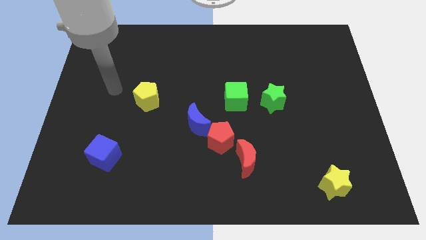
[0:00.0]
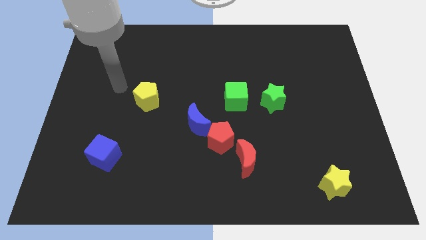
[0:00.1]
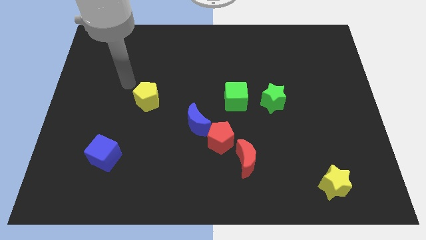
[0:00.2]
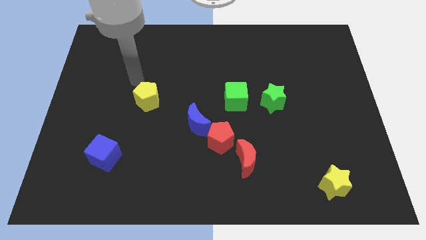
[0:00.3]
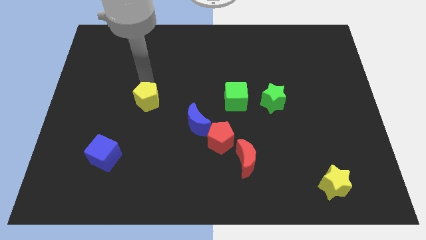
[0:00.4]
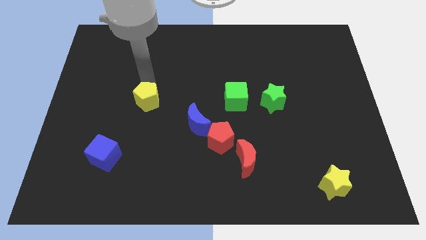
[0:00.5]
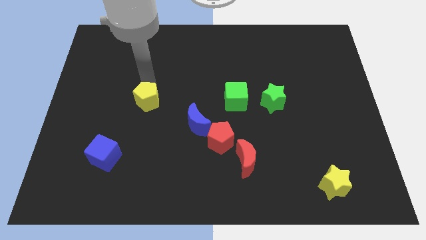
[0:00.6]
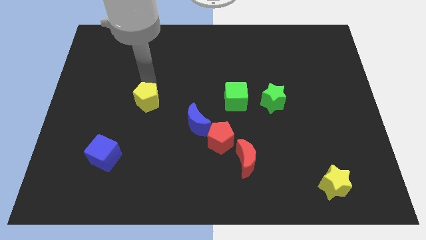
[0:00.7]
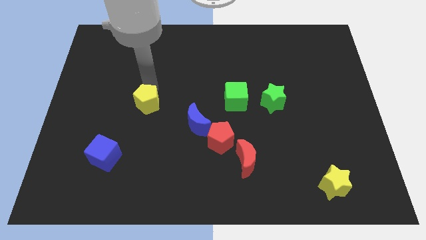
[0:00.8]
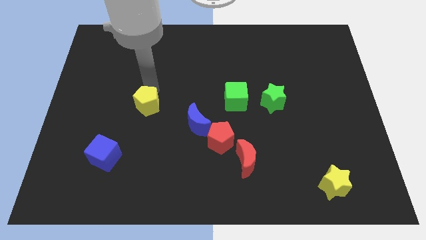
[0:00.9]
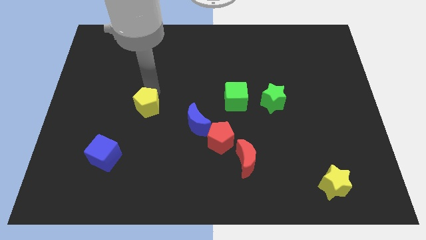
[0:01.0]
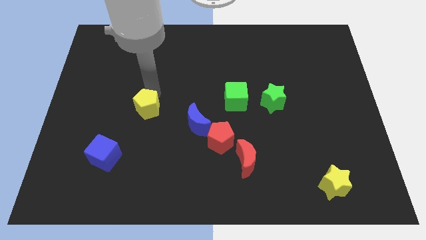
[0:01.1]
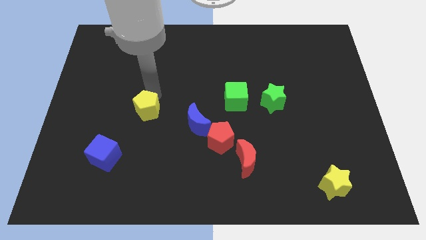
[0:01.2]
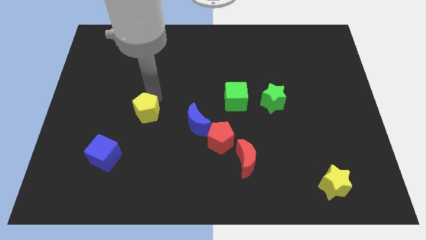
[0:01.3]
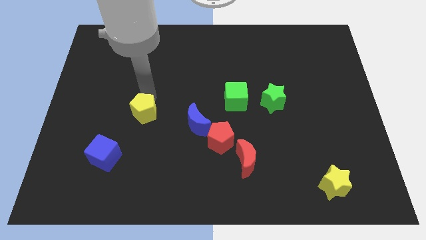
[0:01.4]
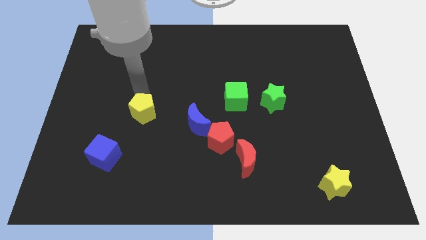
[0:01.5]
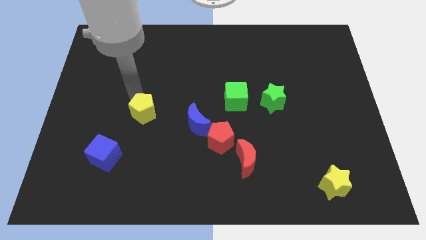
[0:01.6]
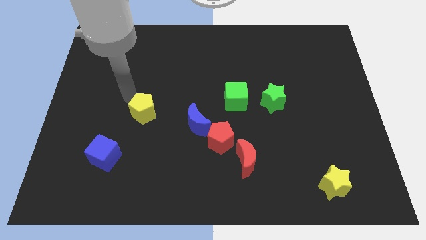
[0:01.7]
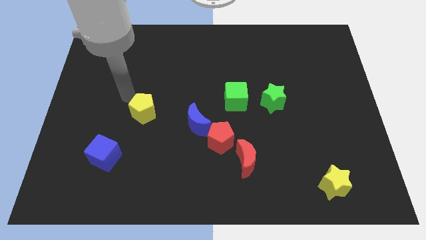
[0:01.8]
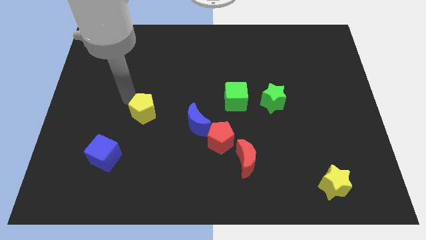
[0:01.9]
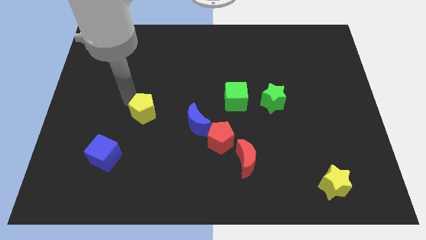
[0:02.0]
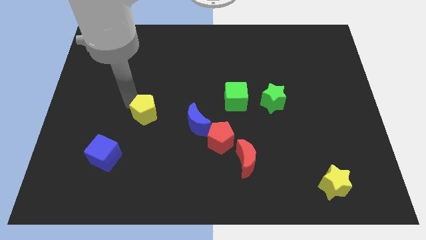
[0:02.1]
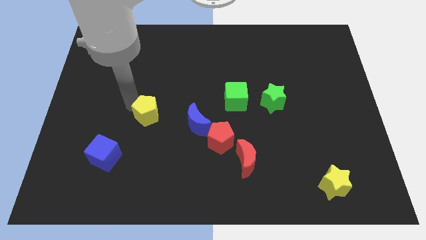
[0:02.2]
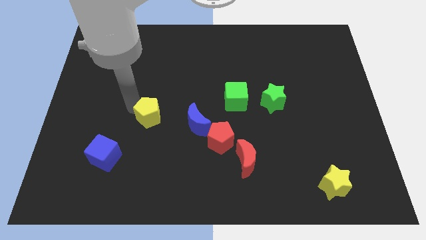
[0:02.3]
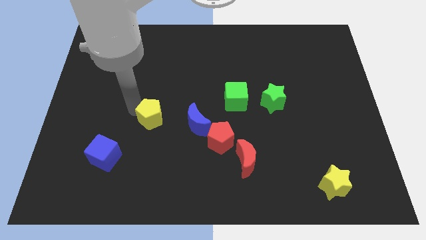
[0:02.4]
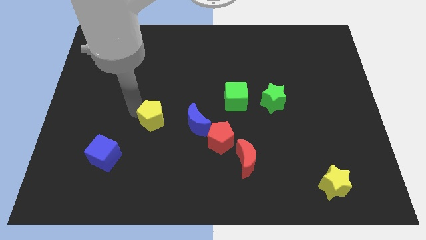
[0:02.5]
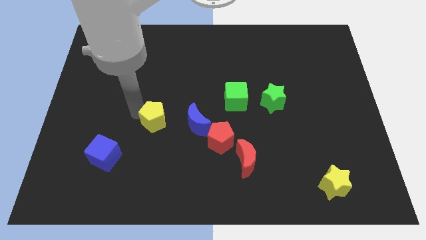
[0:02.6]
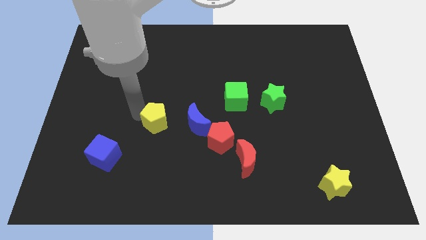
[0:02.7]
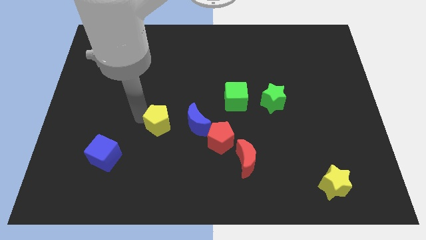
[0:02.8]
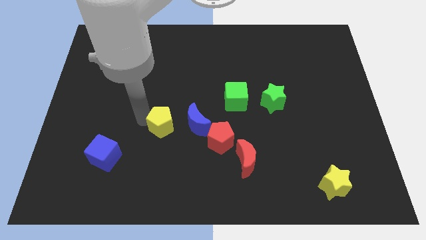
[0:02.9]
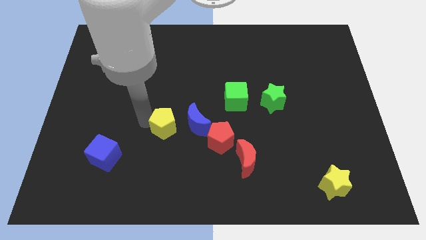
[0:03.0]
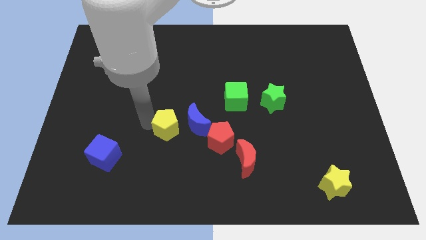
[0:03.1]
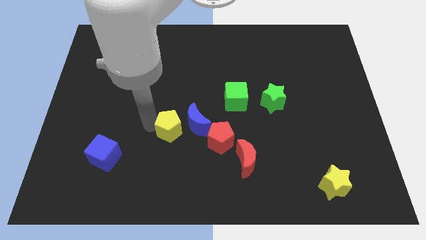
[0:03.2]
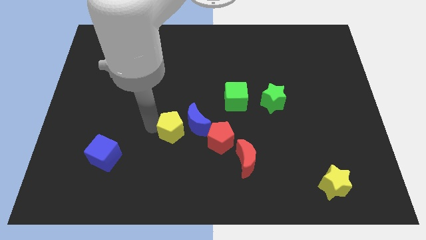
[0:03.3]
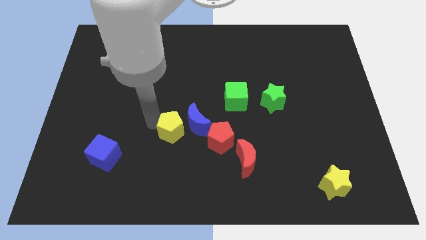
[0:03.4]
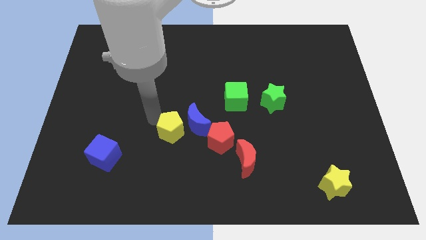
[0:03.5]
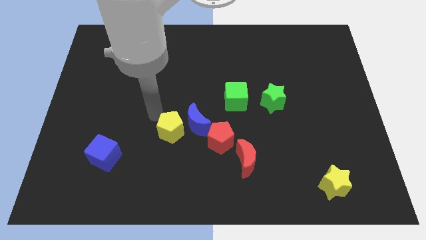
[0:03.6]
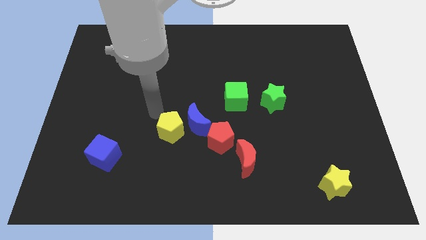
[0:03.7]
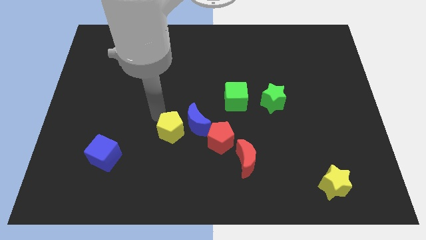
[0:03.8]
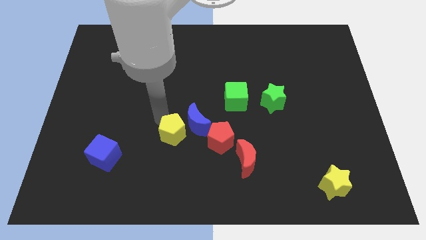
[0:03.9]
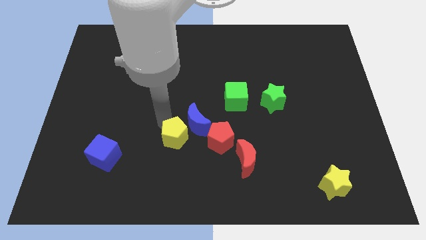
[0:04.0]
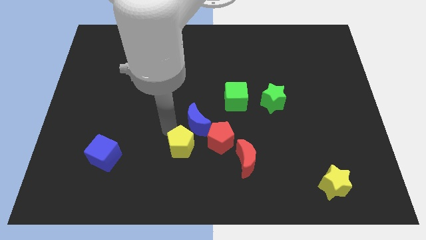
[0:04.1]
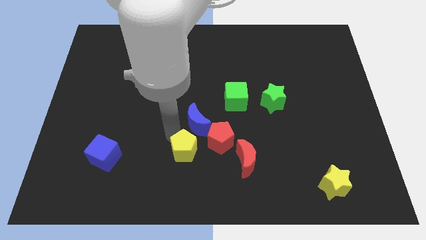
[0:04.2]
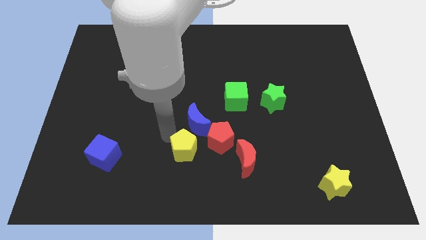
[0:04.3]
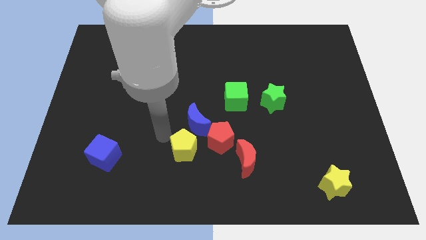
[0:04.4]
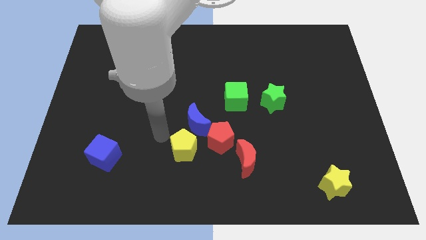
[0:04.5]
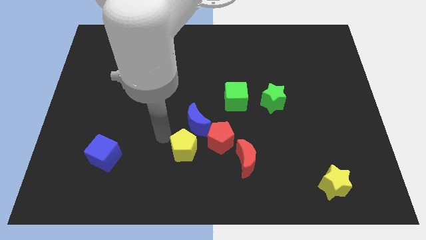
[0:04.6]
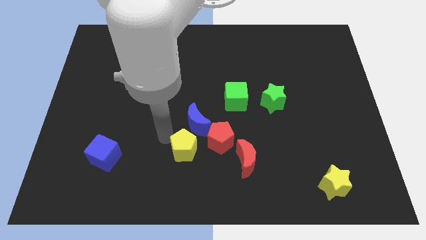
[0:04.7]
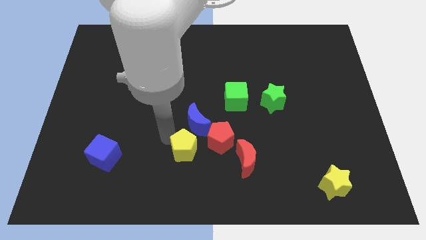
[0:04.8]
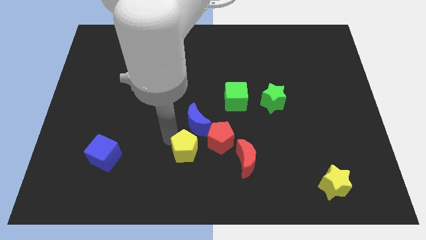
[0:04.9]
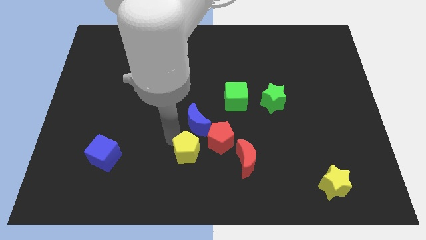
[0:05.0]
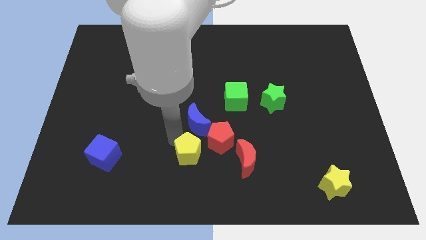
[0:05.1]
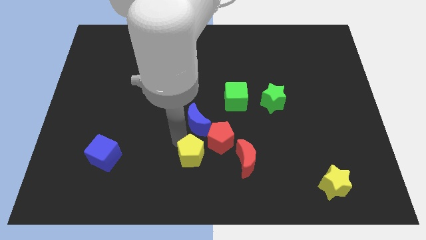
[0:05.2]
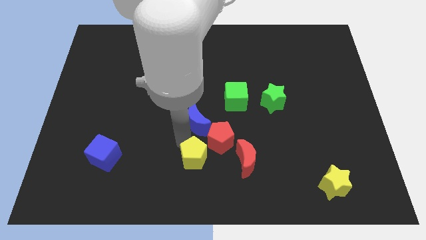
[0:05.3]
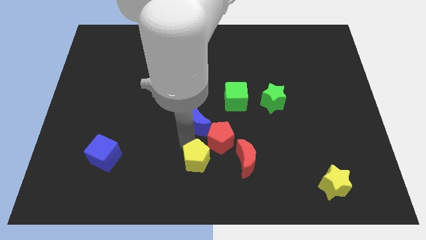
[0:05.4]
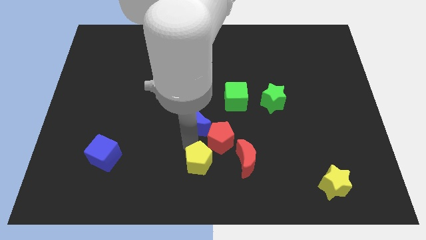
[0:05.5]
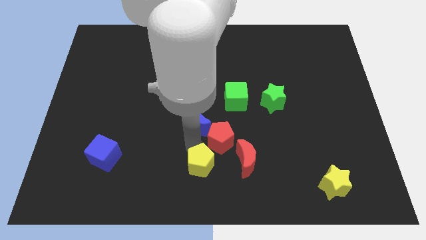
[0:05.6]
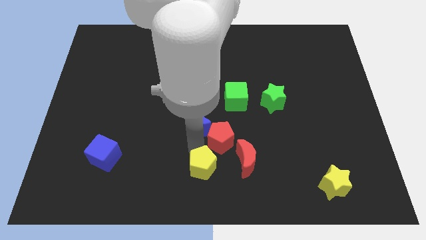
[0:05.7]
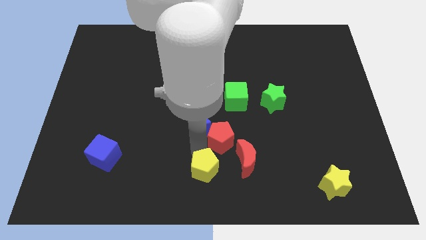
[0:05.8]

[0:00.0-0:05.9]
move the yellow pentagon to the bottom left of the red moon
